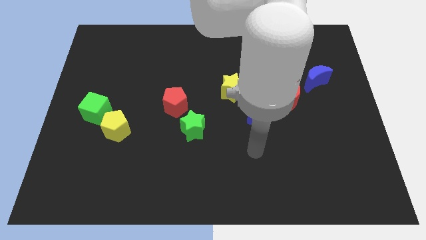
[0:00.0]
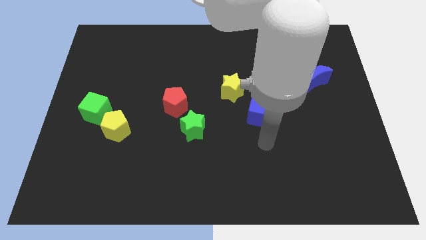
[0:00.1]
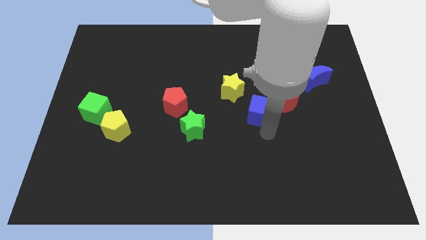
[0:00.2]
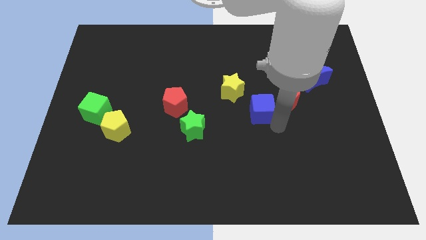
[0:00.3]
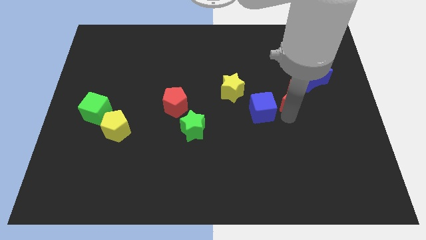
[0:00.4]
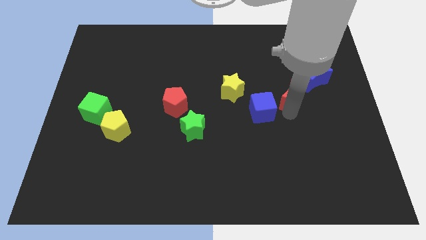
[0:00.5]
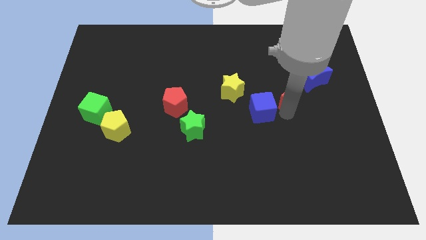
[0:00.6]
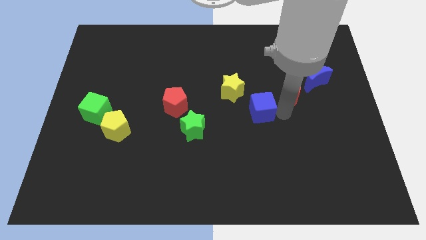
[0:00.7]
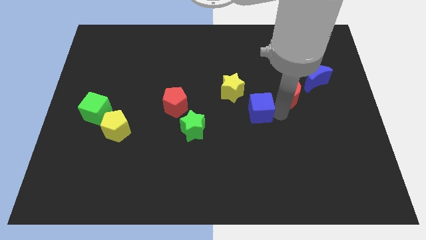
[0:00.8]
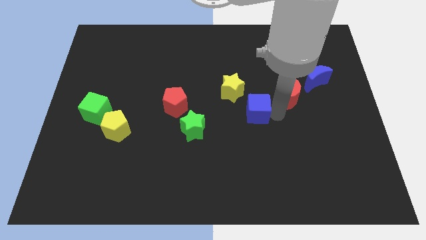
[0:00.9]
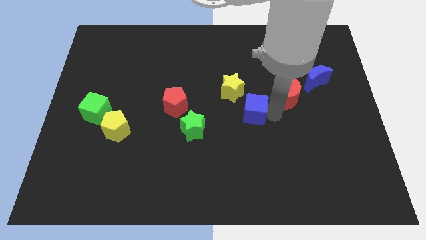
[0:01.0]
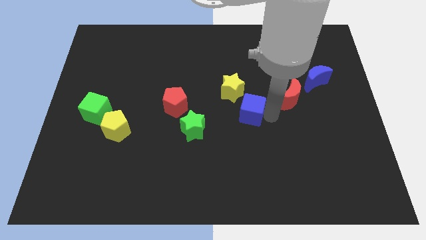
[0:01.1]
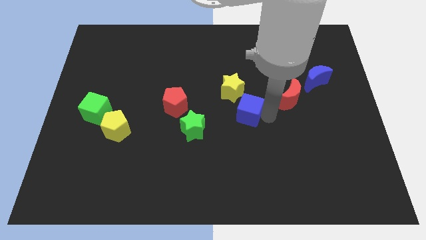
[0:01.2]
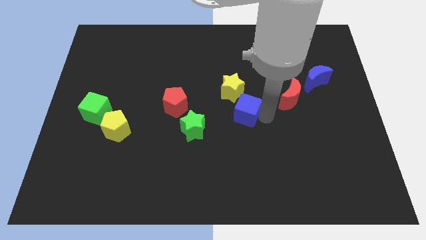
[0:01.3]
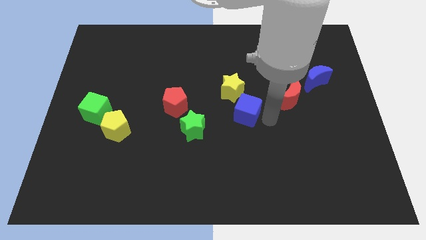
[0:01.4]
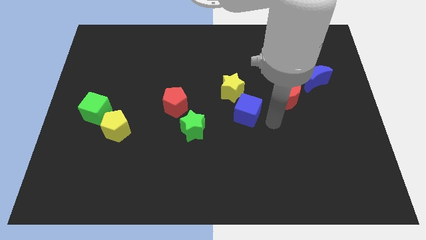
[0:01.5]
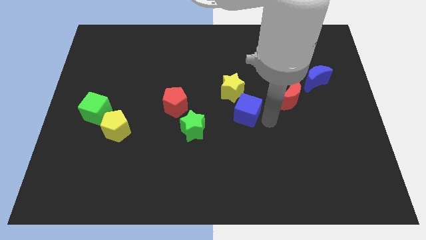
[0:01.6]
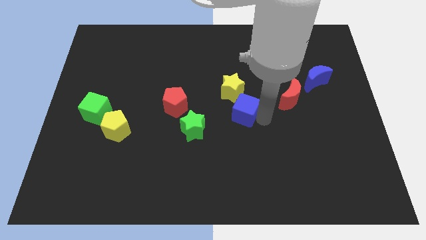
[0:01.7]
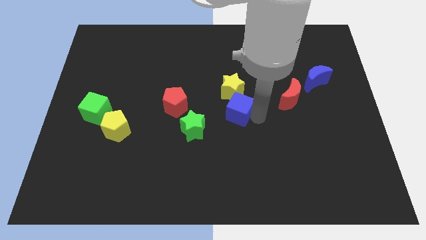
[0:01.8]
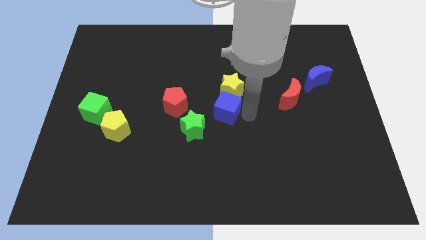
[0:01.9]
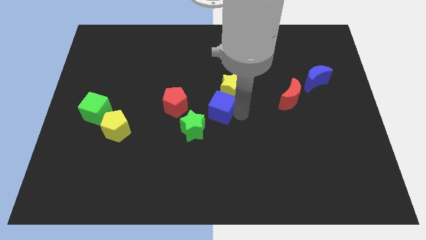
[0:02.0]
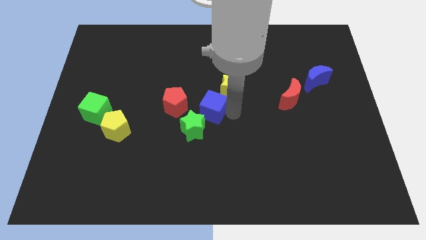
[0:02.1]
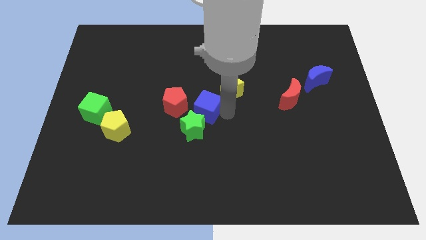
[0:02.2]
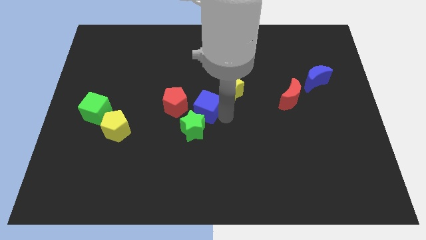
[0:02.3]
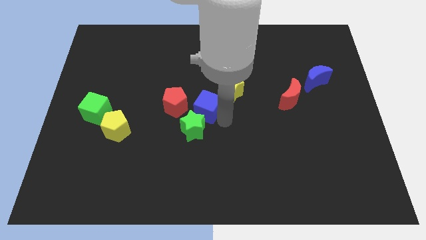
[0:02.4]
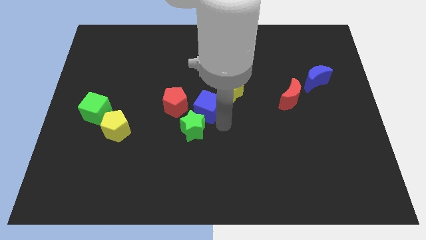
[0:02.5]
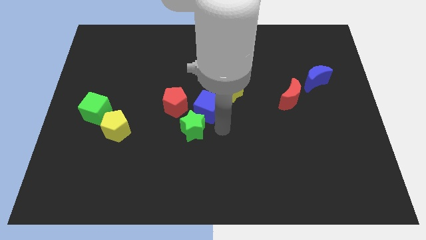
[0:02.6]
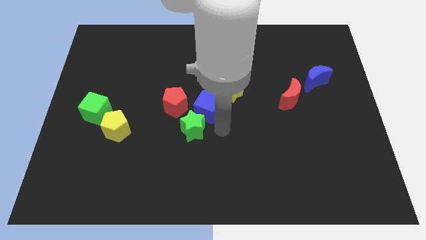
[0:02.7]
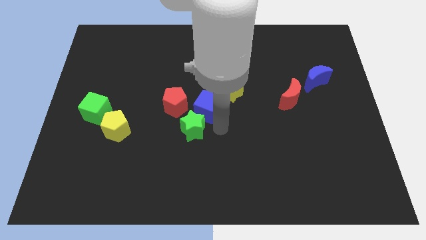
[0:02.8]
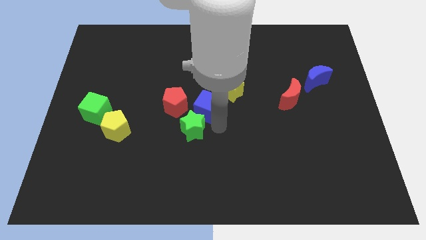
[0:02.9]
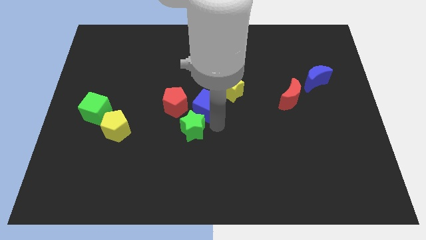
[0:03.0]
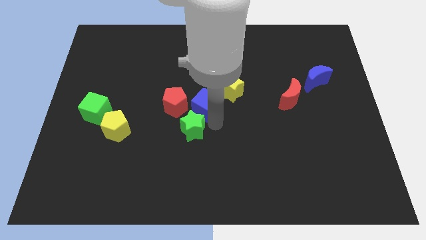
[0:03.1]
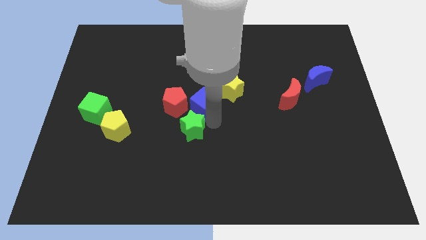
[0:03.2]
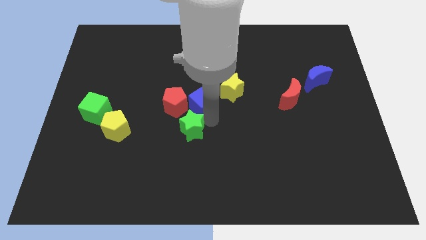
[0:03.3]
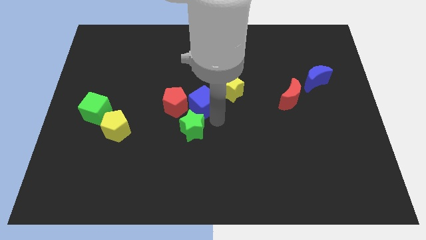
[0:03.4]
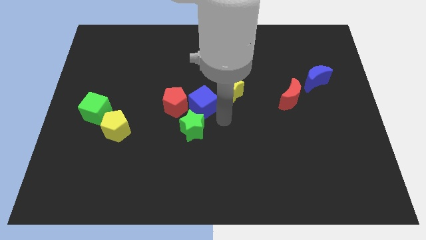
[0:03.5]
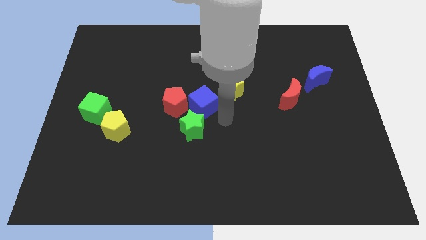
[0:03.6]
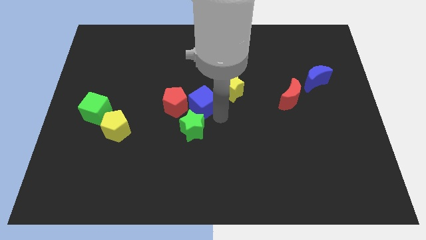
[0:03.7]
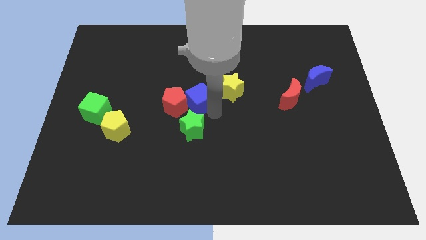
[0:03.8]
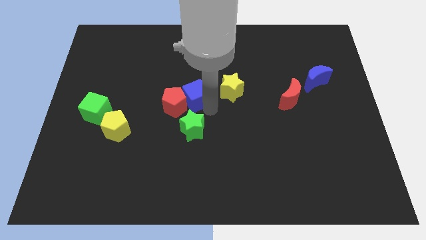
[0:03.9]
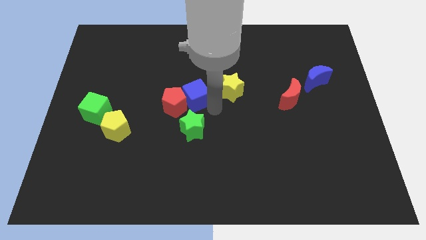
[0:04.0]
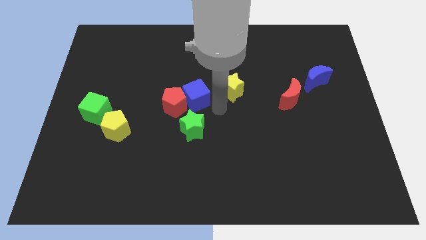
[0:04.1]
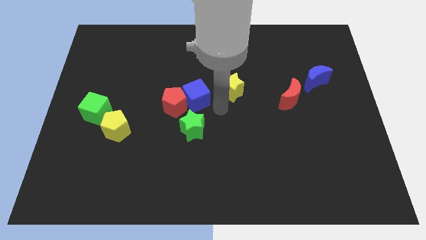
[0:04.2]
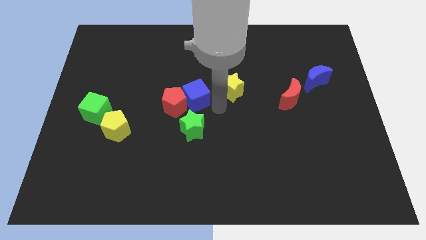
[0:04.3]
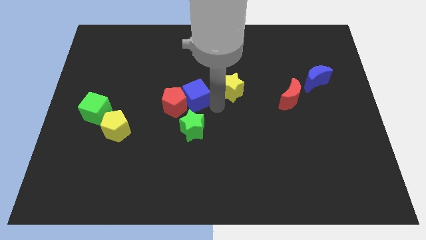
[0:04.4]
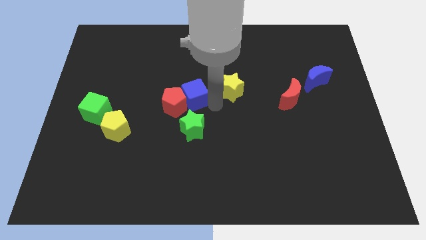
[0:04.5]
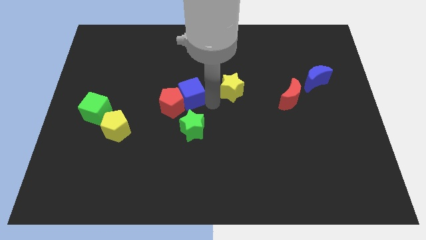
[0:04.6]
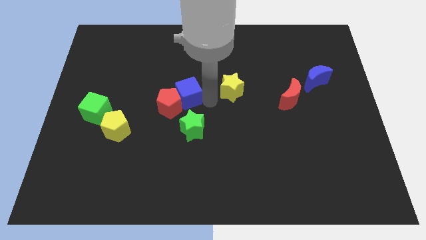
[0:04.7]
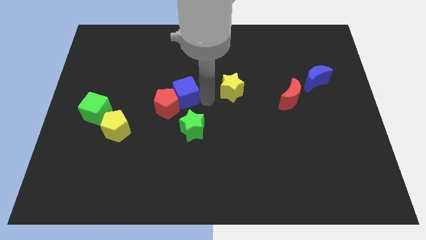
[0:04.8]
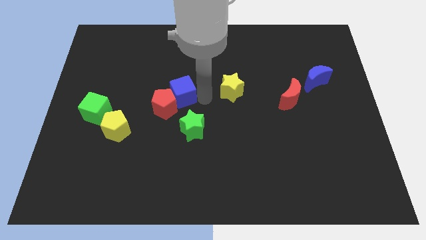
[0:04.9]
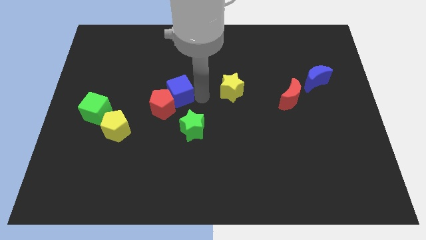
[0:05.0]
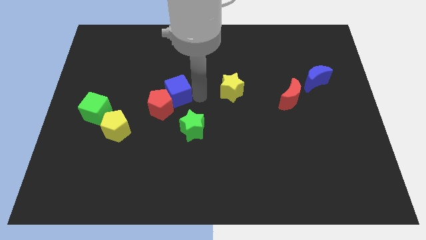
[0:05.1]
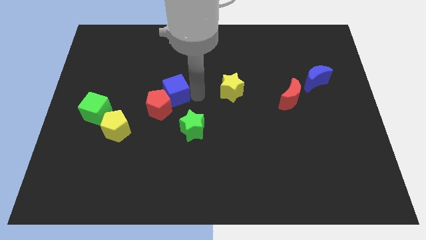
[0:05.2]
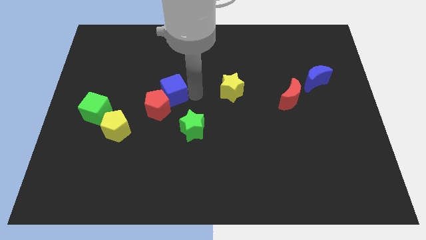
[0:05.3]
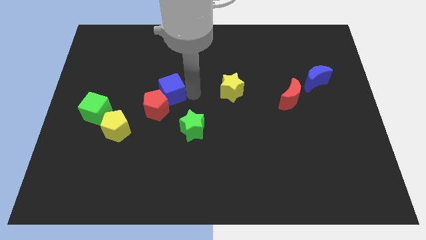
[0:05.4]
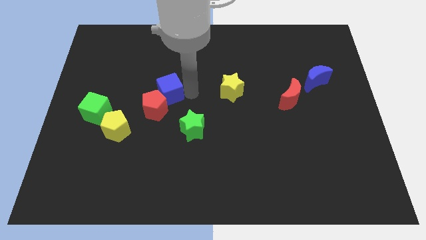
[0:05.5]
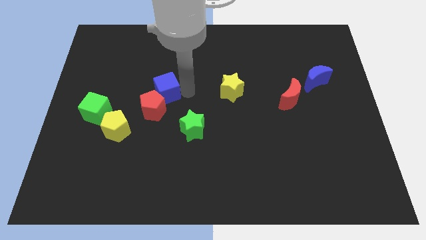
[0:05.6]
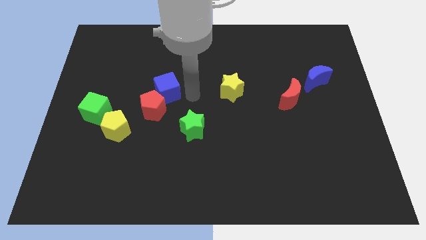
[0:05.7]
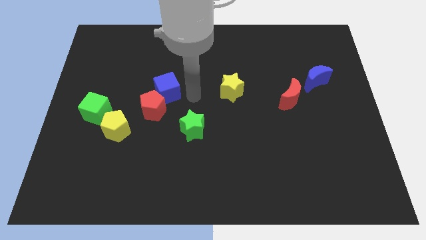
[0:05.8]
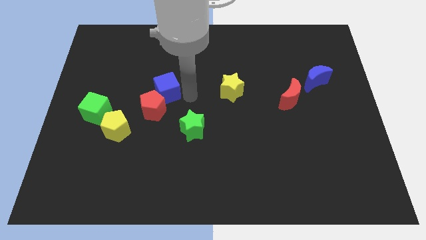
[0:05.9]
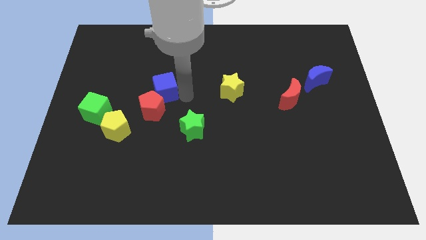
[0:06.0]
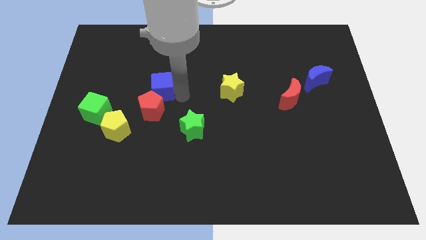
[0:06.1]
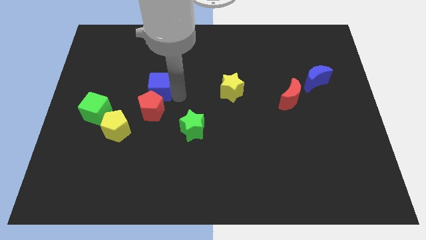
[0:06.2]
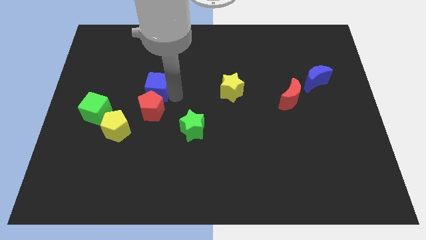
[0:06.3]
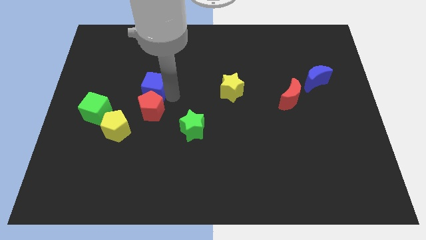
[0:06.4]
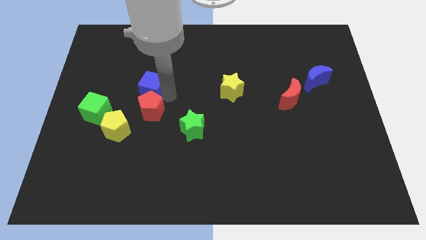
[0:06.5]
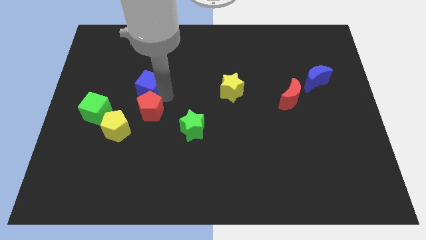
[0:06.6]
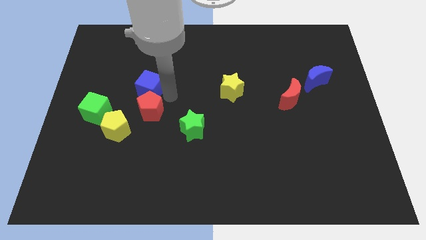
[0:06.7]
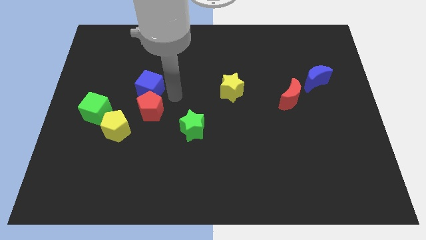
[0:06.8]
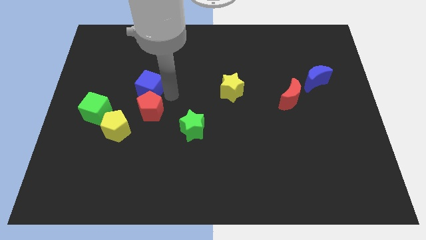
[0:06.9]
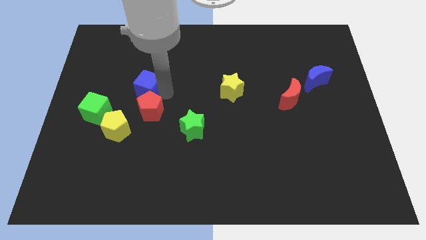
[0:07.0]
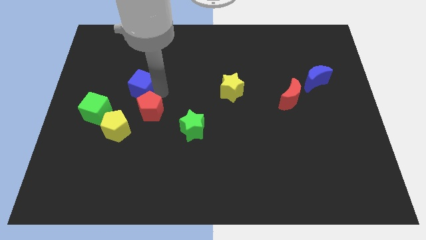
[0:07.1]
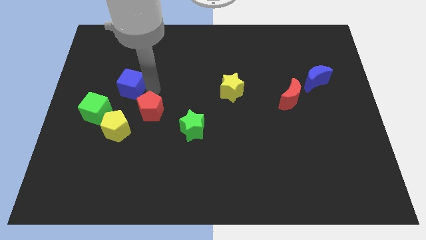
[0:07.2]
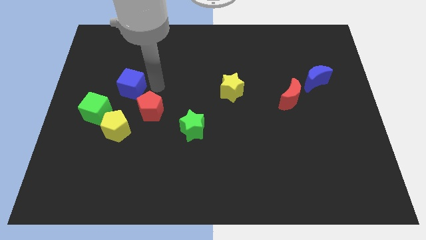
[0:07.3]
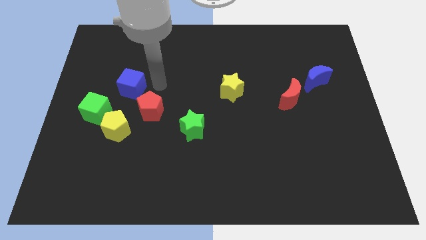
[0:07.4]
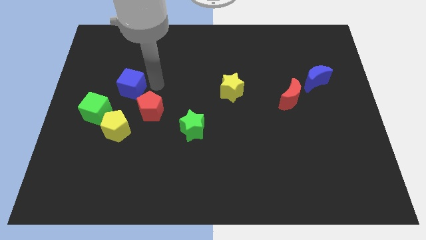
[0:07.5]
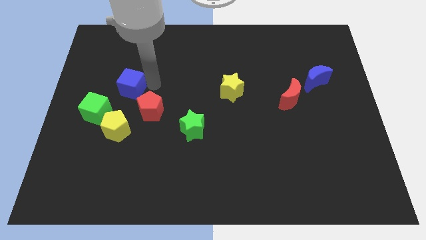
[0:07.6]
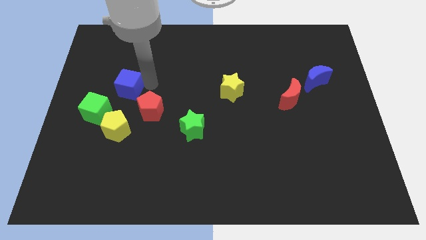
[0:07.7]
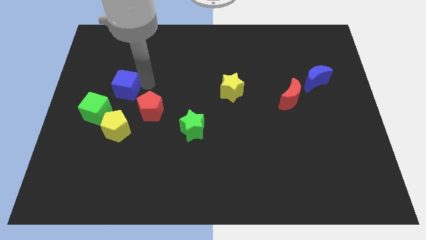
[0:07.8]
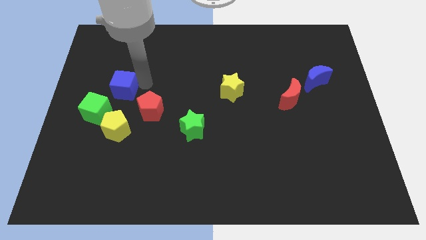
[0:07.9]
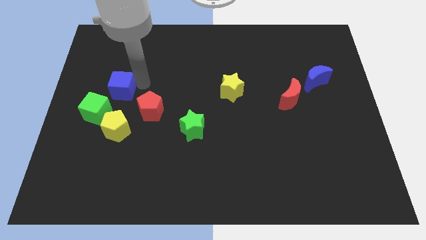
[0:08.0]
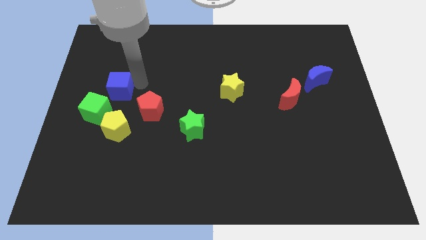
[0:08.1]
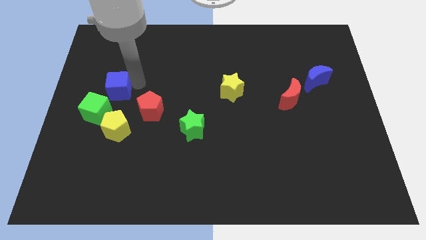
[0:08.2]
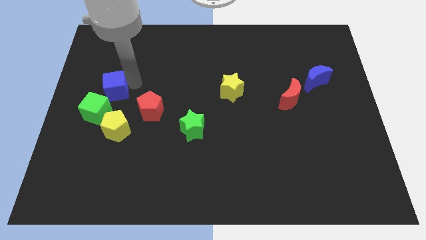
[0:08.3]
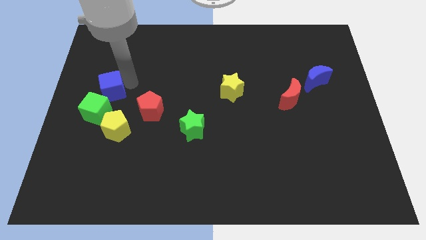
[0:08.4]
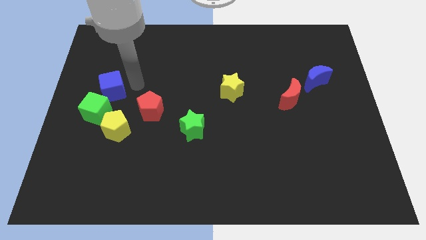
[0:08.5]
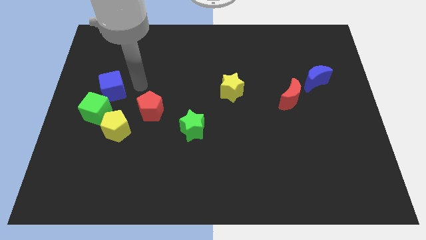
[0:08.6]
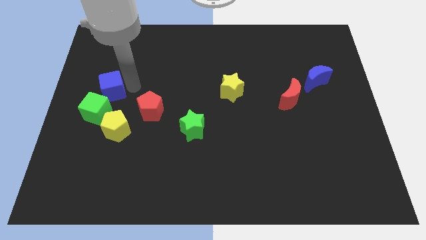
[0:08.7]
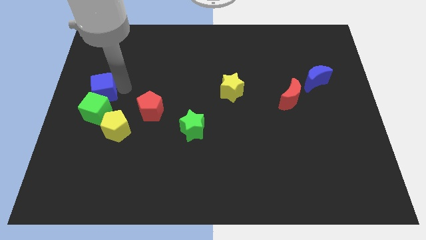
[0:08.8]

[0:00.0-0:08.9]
put the blue cube to the left side of the board
